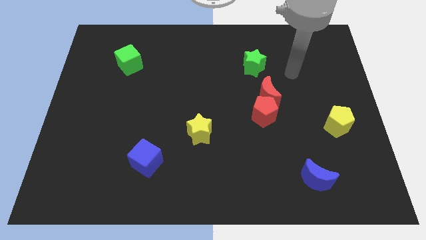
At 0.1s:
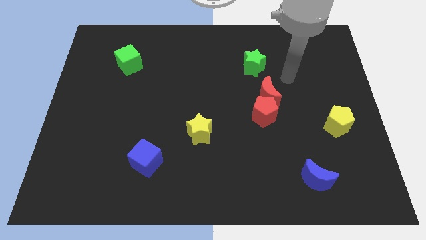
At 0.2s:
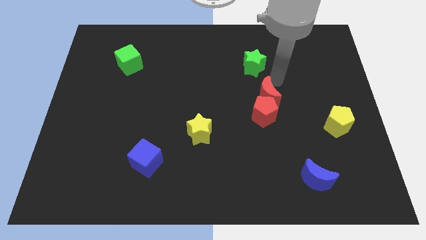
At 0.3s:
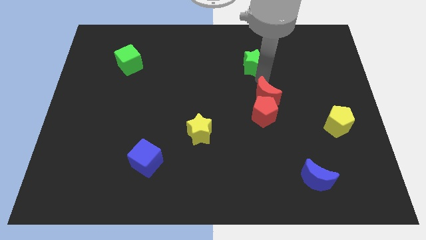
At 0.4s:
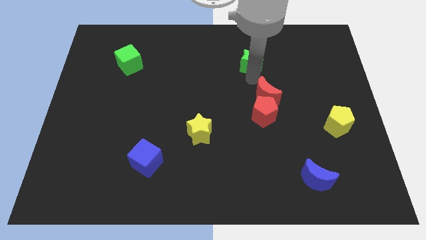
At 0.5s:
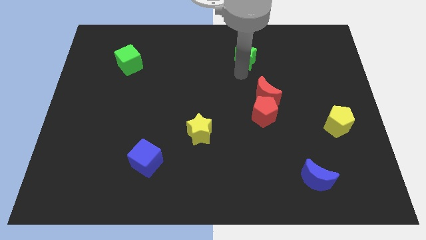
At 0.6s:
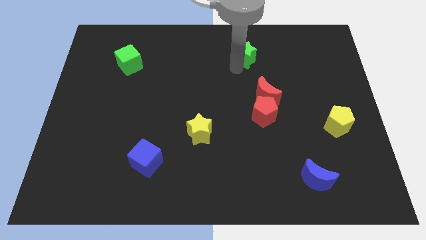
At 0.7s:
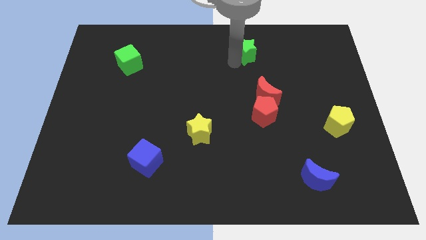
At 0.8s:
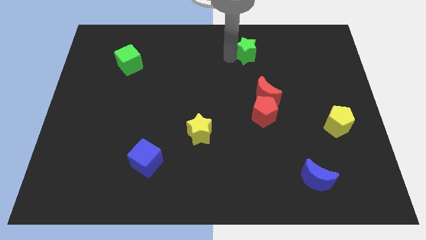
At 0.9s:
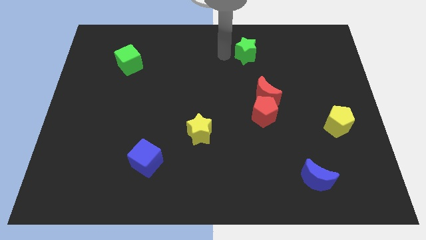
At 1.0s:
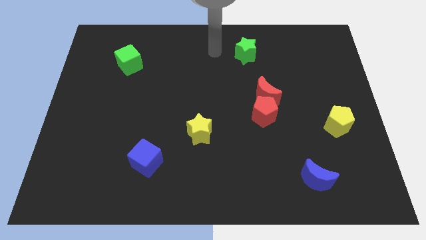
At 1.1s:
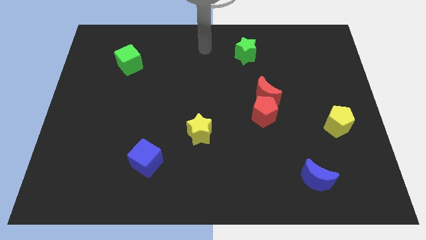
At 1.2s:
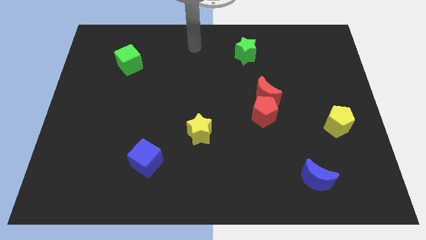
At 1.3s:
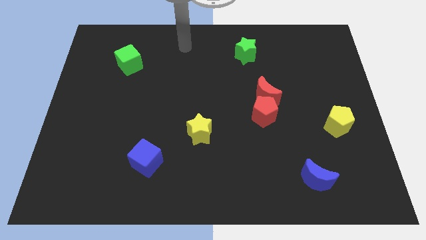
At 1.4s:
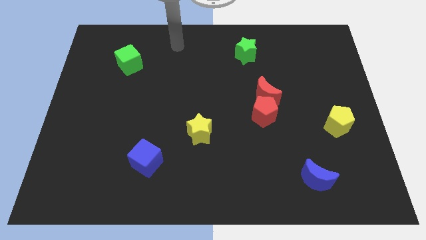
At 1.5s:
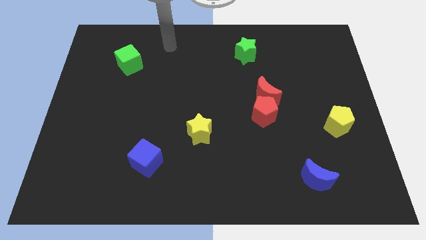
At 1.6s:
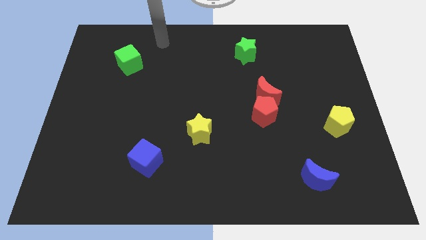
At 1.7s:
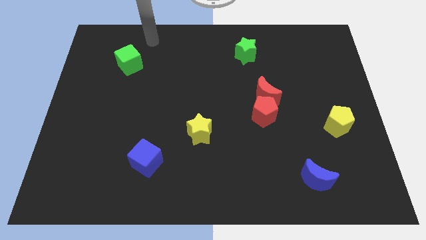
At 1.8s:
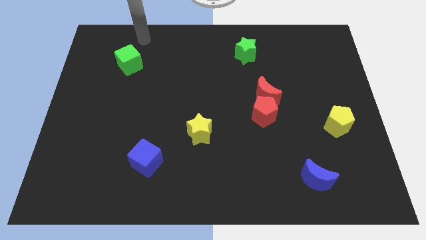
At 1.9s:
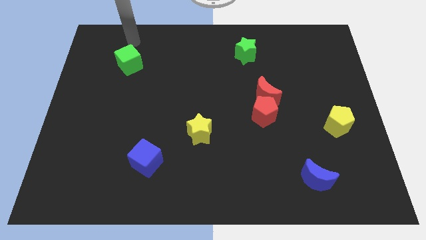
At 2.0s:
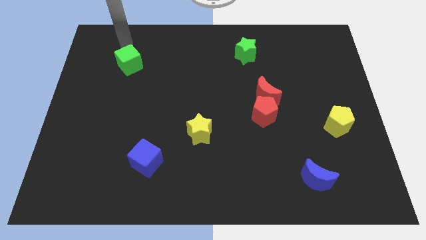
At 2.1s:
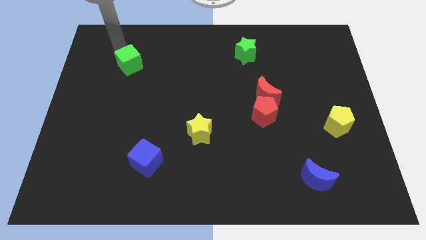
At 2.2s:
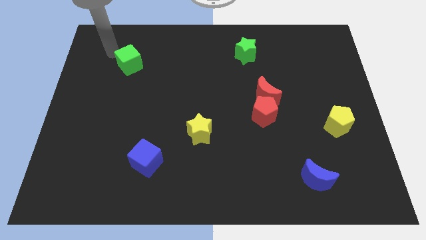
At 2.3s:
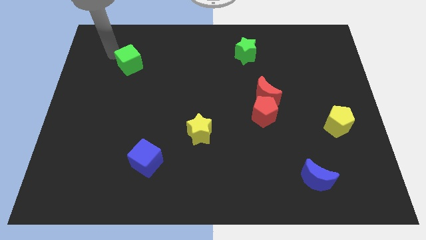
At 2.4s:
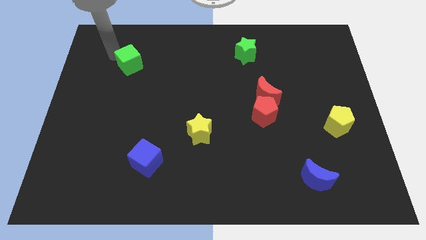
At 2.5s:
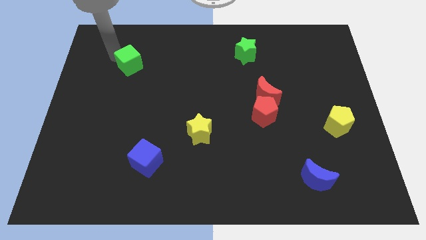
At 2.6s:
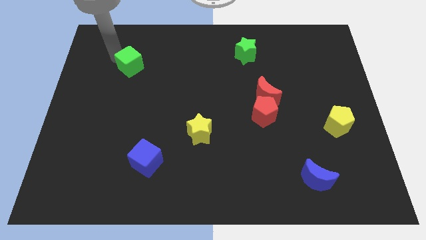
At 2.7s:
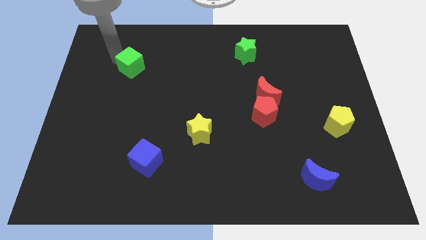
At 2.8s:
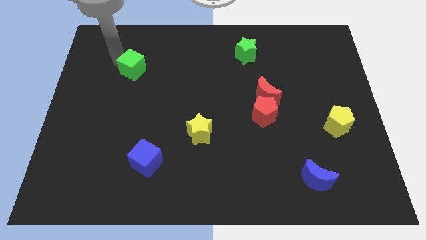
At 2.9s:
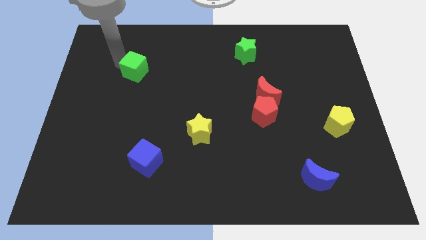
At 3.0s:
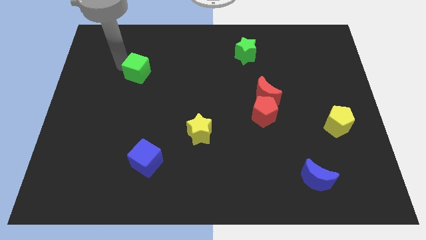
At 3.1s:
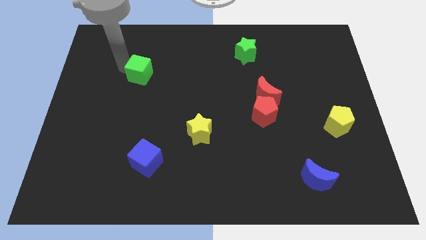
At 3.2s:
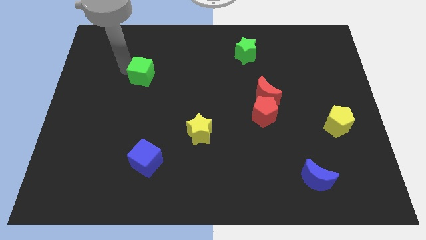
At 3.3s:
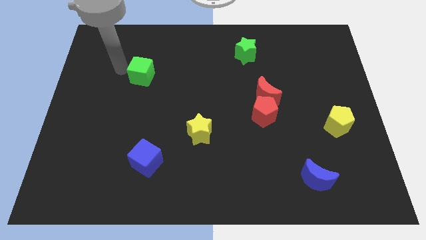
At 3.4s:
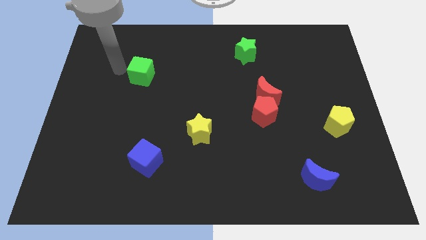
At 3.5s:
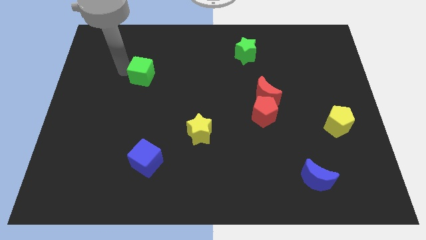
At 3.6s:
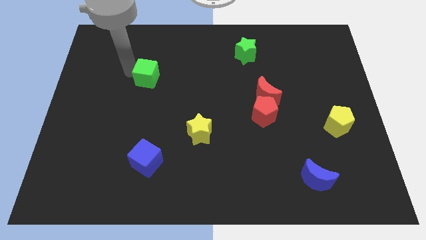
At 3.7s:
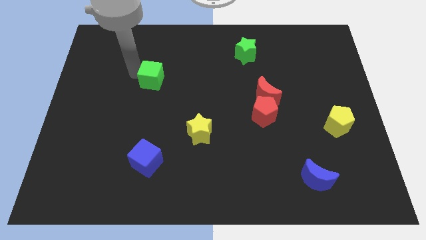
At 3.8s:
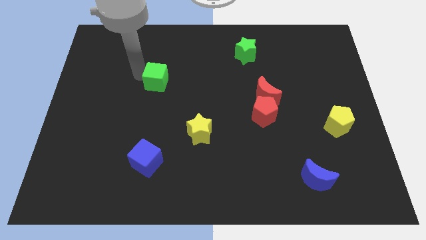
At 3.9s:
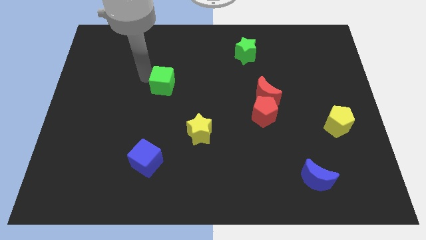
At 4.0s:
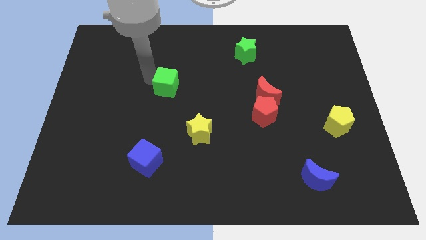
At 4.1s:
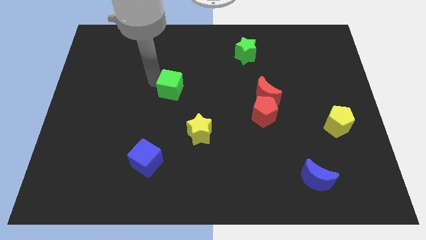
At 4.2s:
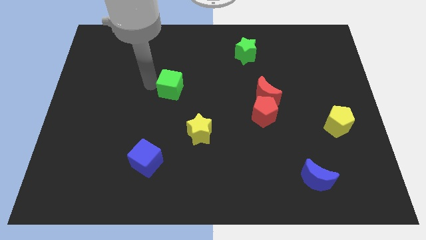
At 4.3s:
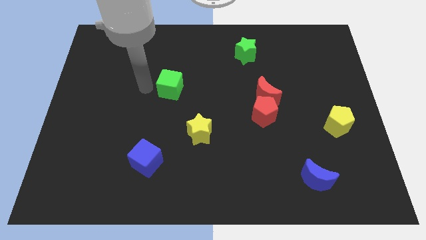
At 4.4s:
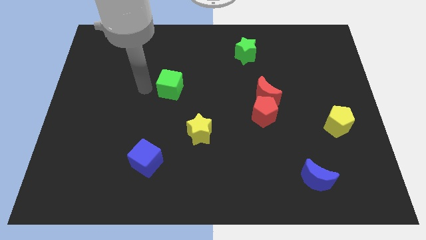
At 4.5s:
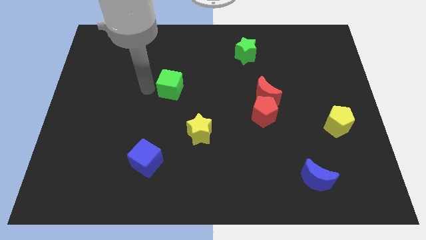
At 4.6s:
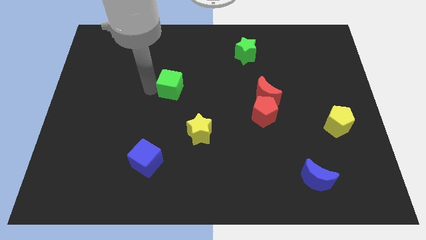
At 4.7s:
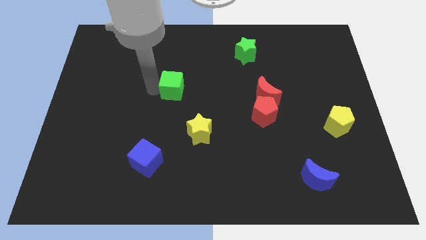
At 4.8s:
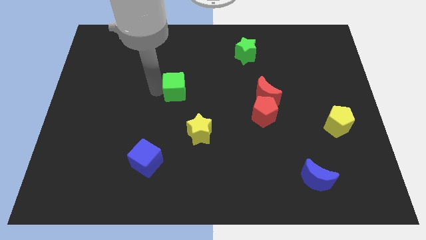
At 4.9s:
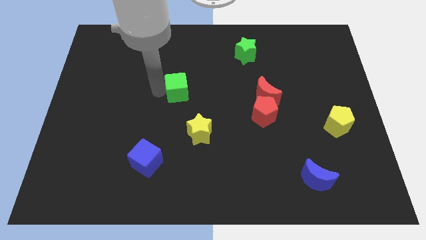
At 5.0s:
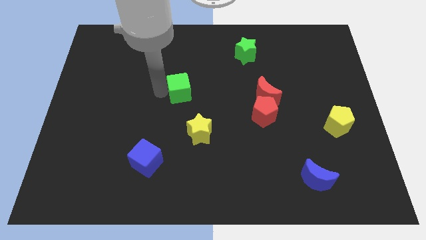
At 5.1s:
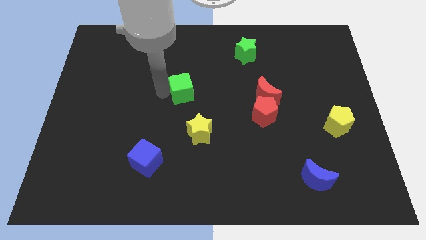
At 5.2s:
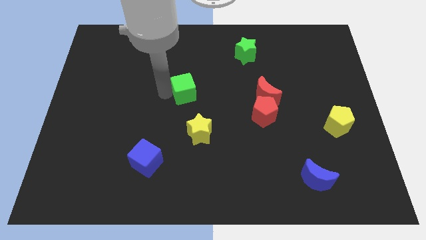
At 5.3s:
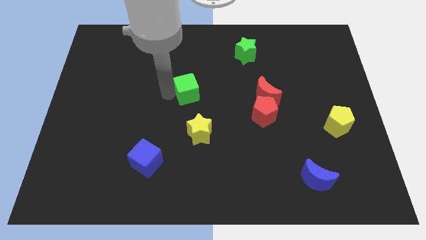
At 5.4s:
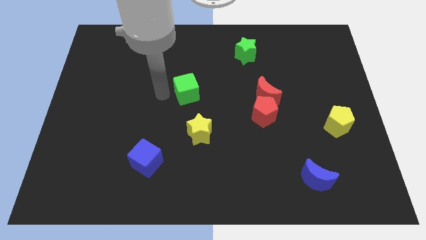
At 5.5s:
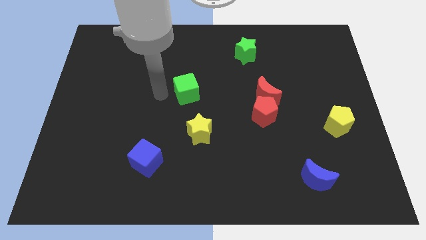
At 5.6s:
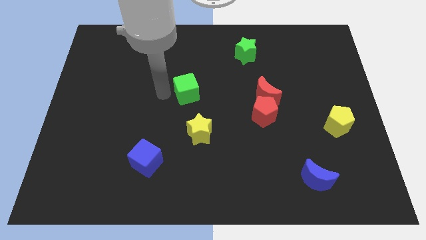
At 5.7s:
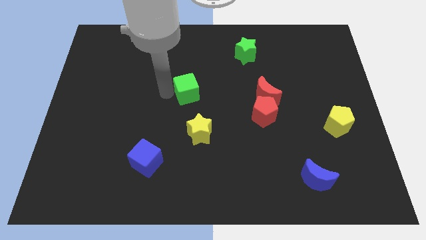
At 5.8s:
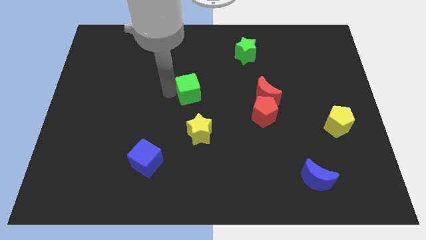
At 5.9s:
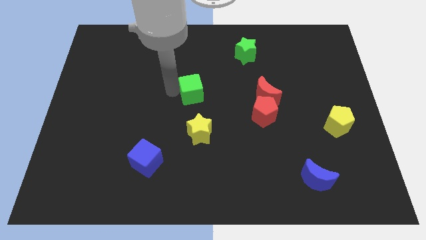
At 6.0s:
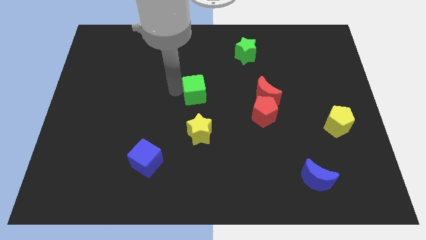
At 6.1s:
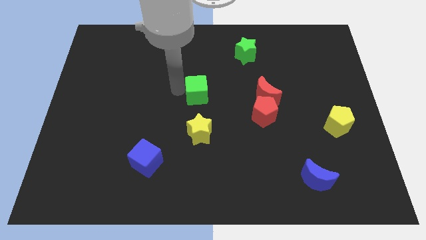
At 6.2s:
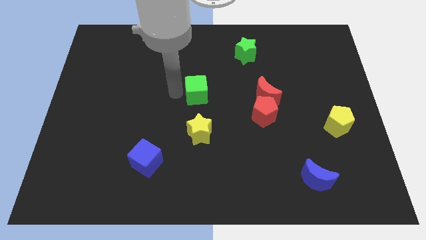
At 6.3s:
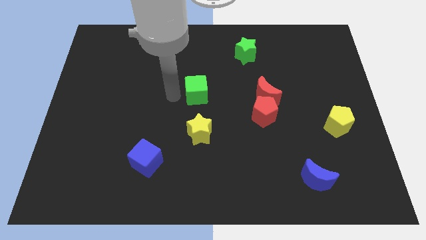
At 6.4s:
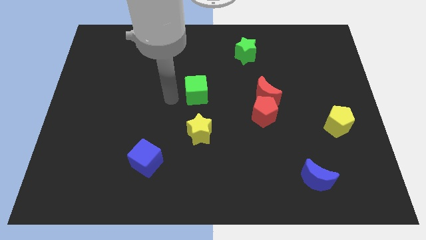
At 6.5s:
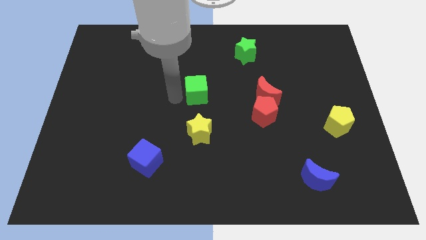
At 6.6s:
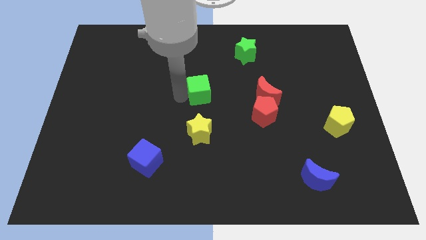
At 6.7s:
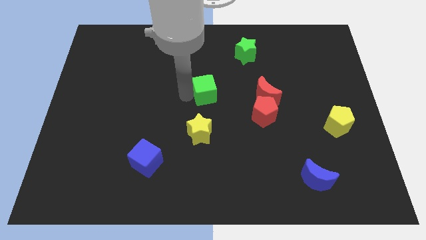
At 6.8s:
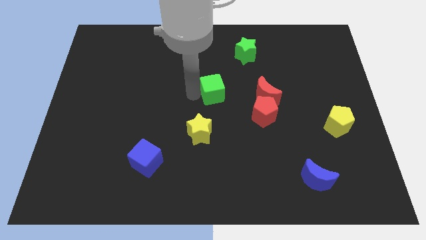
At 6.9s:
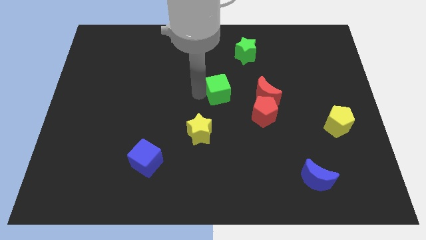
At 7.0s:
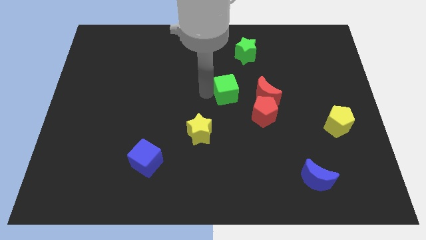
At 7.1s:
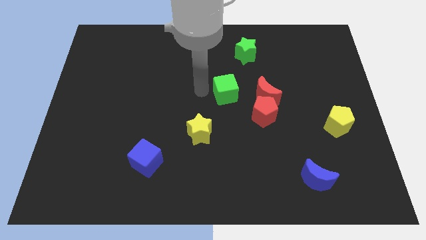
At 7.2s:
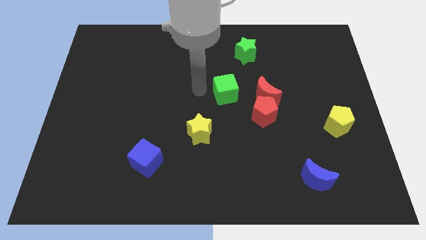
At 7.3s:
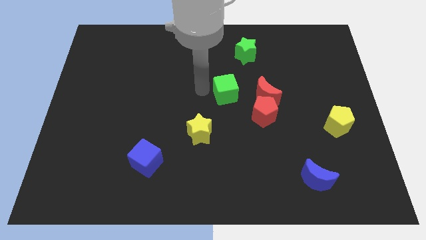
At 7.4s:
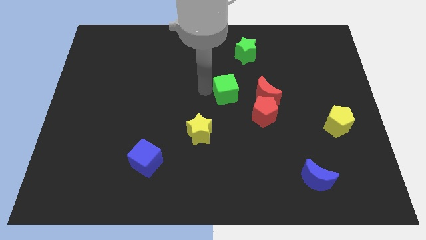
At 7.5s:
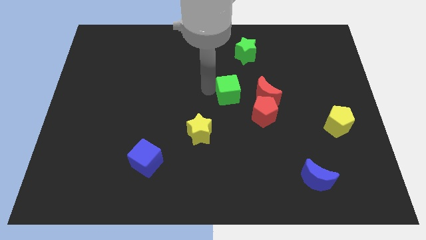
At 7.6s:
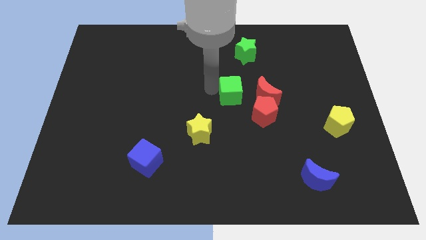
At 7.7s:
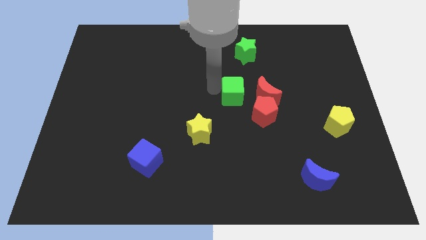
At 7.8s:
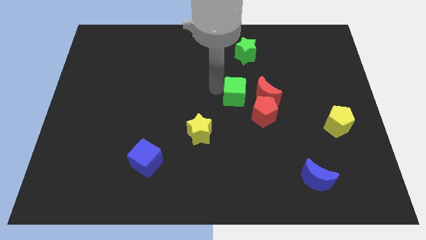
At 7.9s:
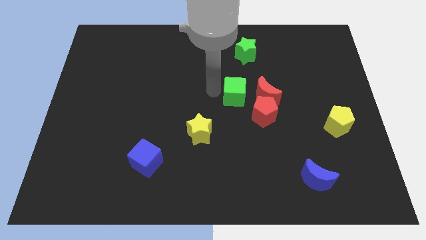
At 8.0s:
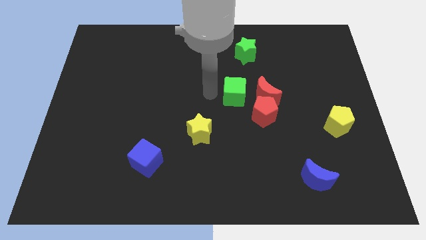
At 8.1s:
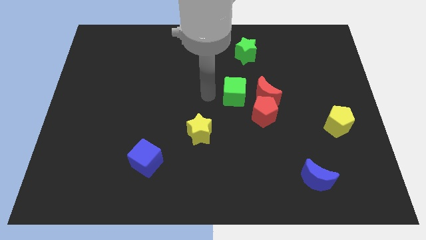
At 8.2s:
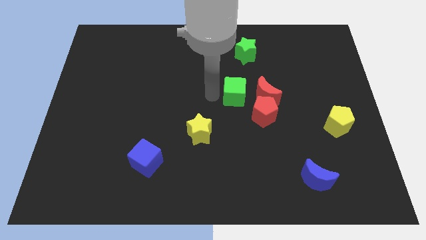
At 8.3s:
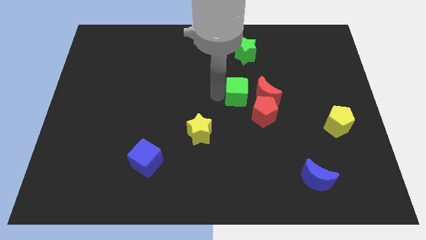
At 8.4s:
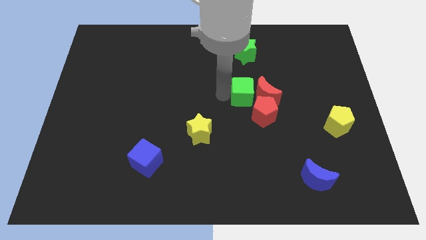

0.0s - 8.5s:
slide the green cube to the red moon
